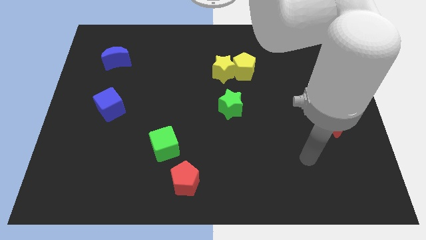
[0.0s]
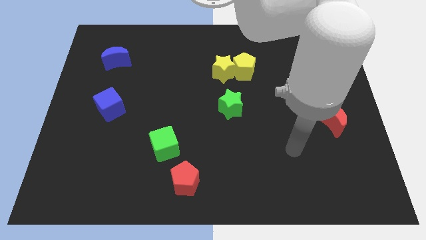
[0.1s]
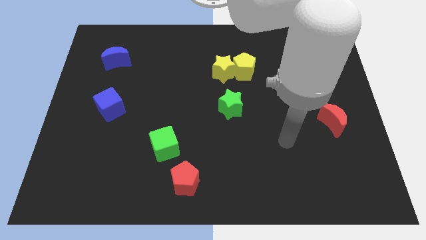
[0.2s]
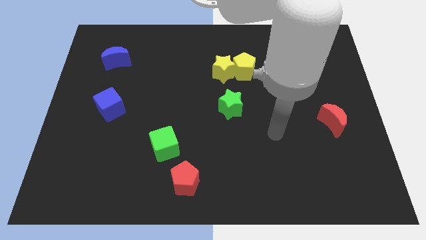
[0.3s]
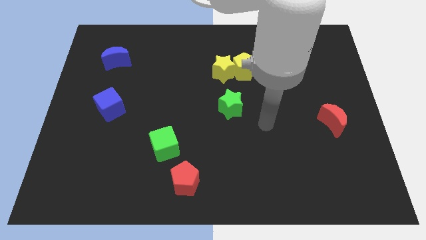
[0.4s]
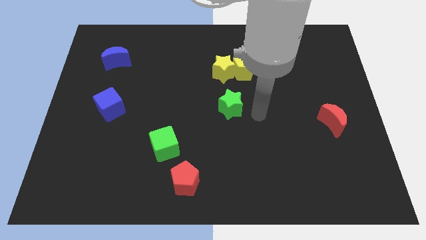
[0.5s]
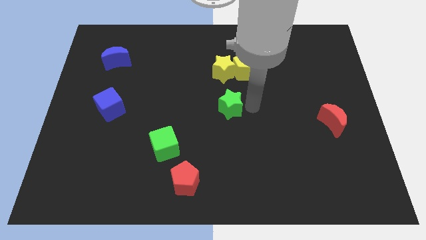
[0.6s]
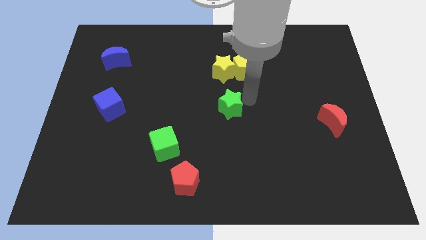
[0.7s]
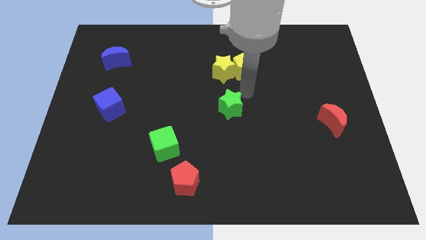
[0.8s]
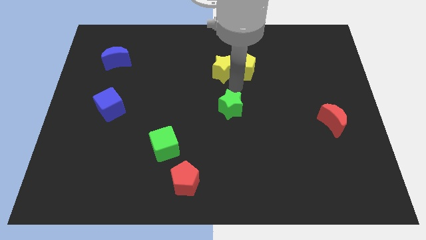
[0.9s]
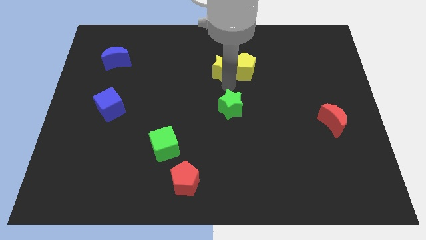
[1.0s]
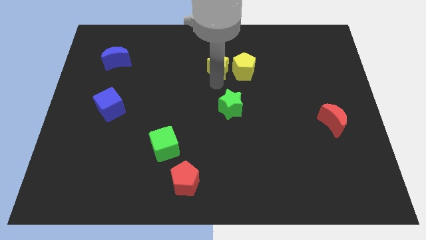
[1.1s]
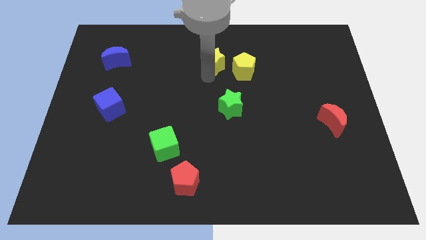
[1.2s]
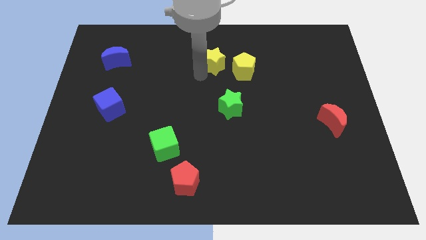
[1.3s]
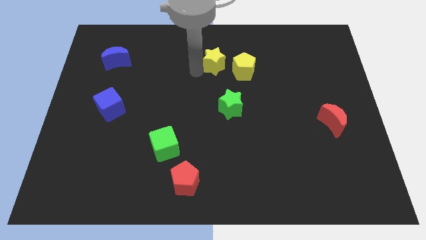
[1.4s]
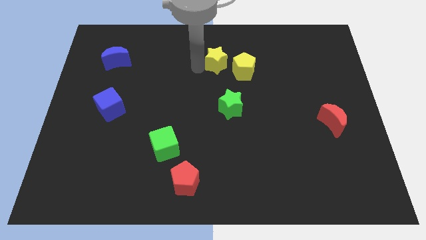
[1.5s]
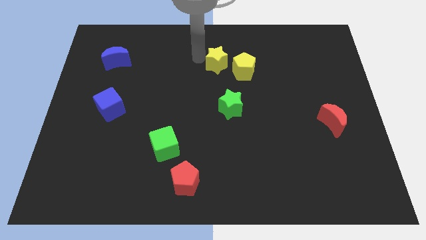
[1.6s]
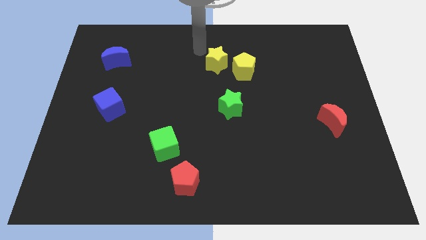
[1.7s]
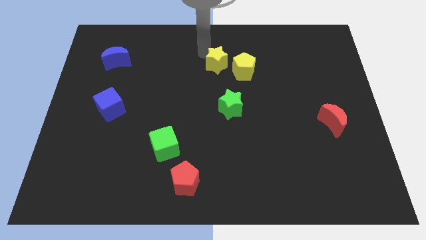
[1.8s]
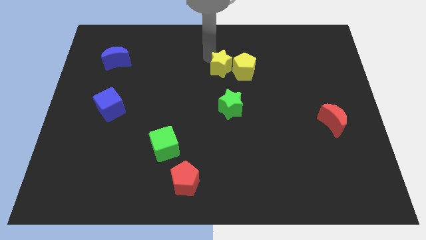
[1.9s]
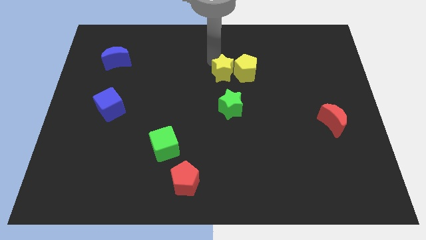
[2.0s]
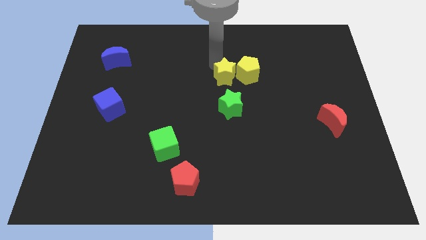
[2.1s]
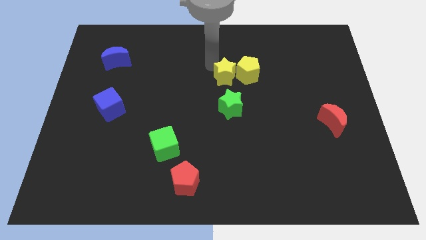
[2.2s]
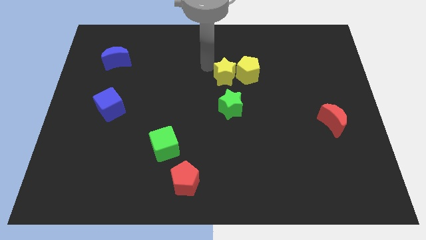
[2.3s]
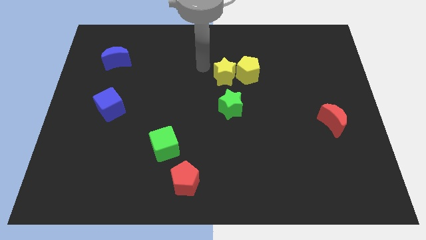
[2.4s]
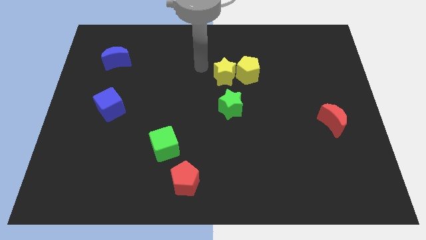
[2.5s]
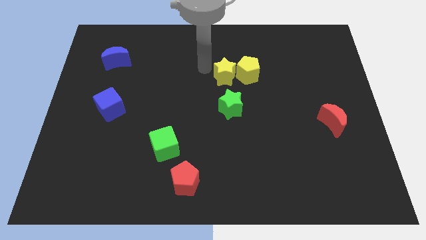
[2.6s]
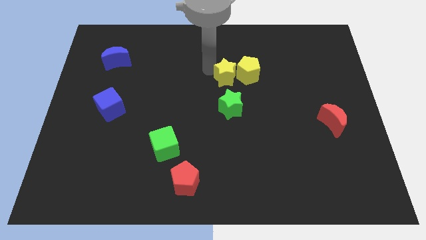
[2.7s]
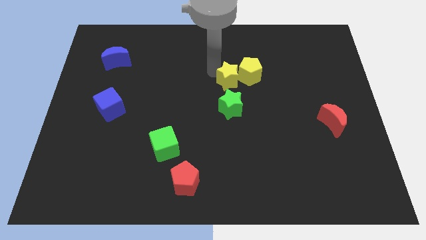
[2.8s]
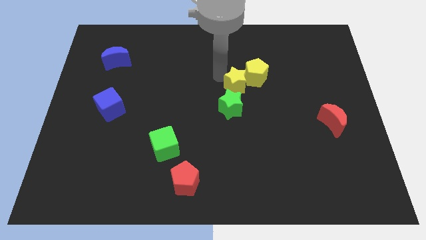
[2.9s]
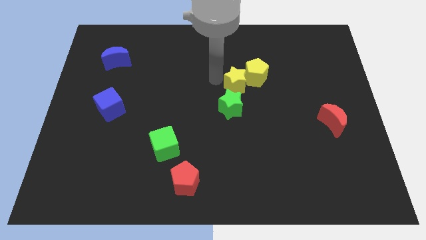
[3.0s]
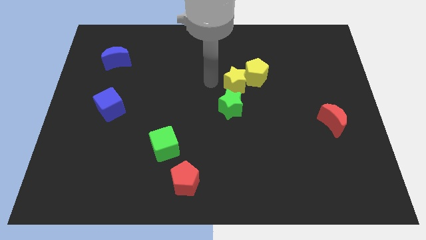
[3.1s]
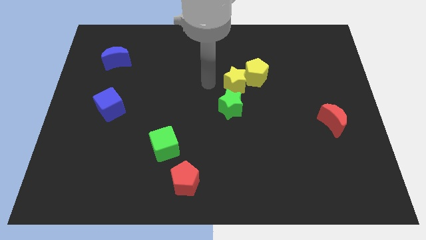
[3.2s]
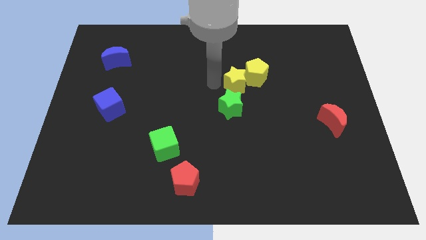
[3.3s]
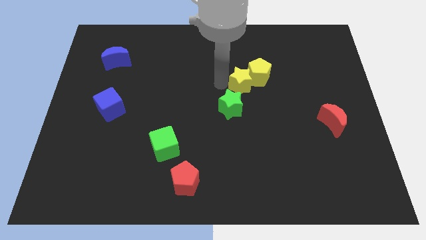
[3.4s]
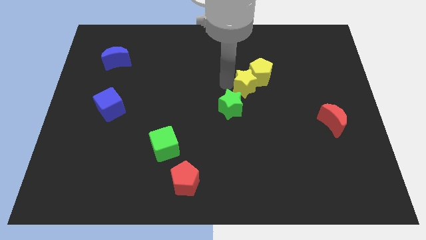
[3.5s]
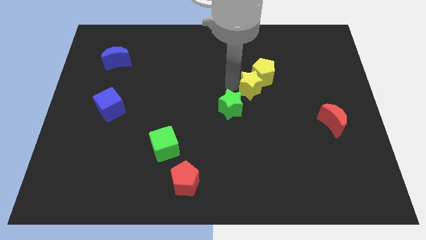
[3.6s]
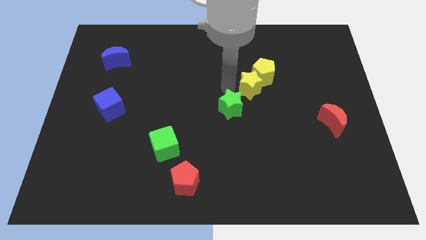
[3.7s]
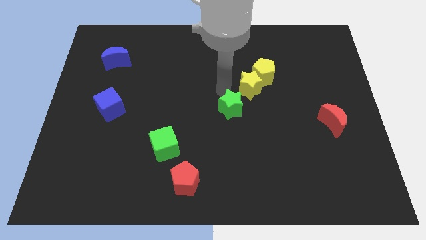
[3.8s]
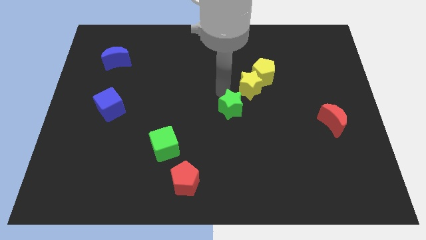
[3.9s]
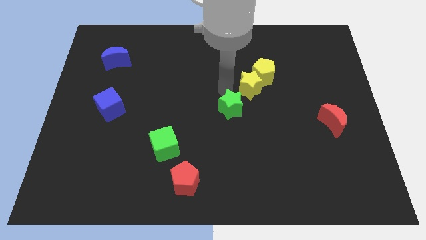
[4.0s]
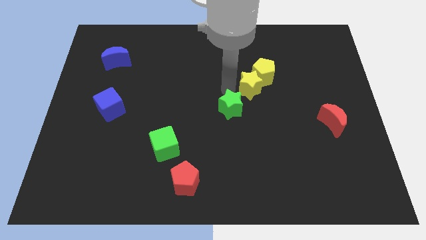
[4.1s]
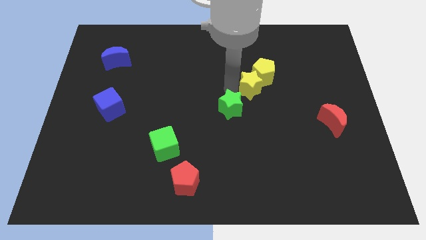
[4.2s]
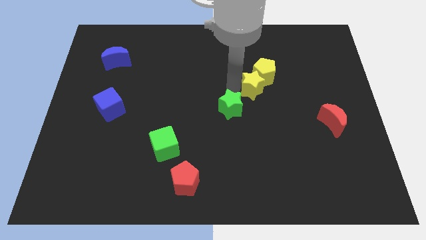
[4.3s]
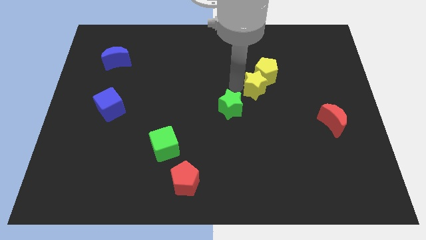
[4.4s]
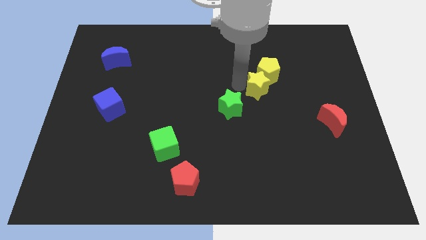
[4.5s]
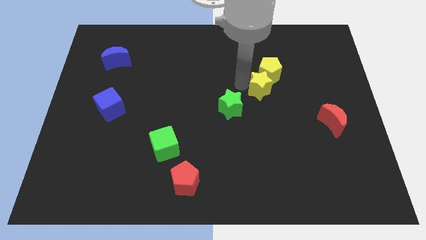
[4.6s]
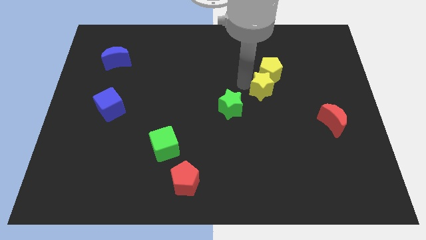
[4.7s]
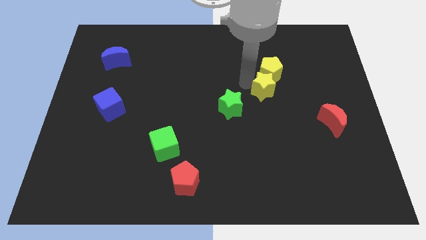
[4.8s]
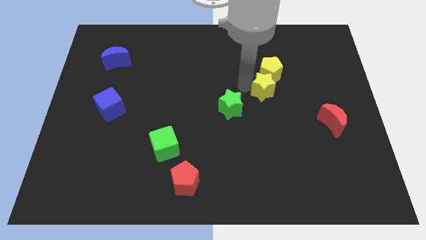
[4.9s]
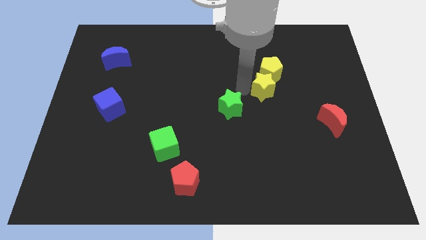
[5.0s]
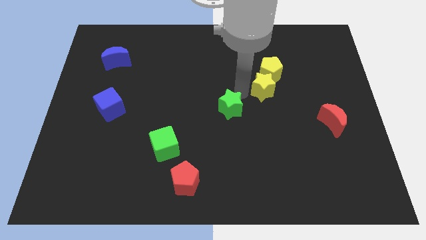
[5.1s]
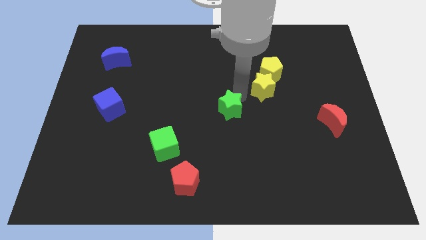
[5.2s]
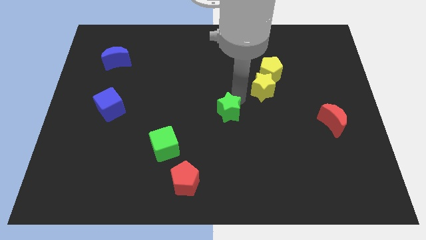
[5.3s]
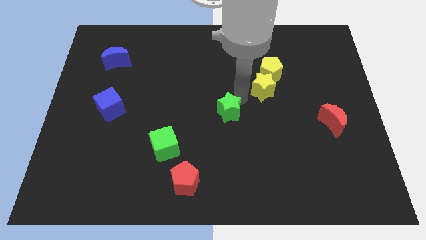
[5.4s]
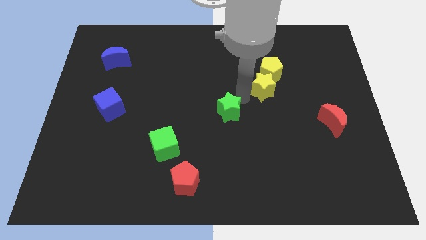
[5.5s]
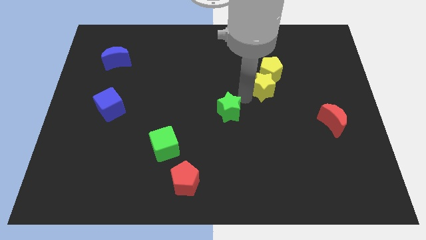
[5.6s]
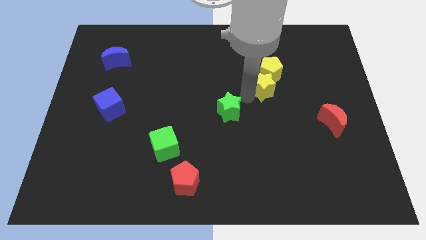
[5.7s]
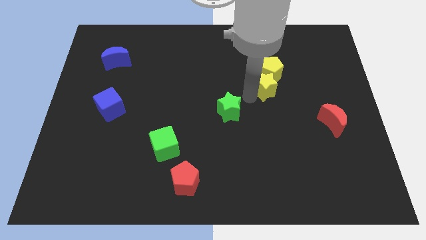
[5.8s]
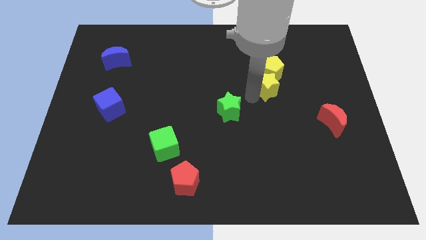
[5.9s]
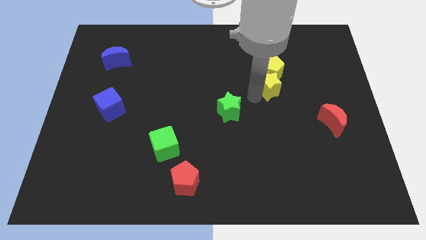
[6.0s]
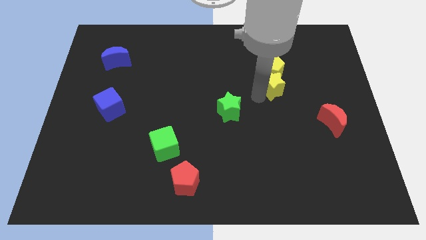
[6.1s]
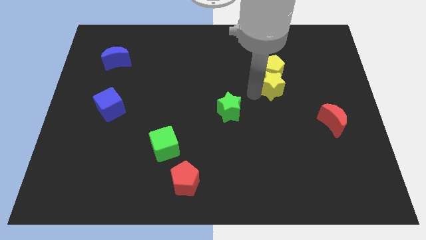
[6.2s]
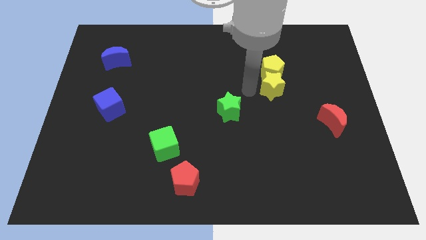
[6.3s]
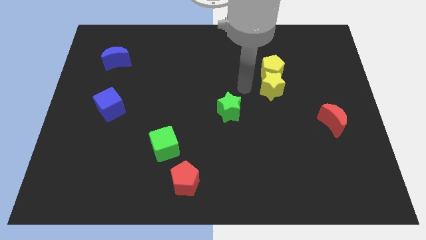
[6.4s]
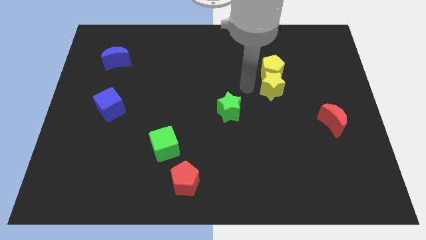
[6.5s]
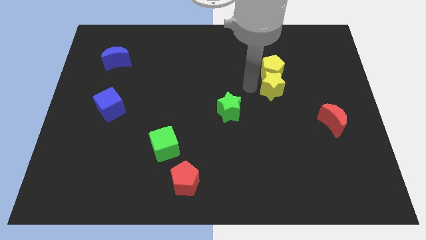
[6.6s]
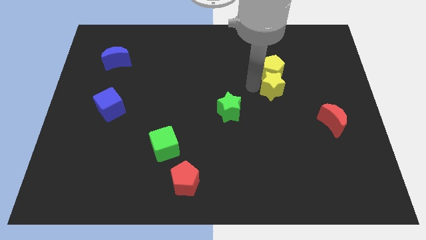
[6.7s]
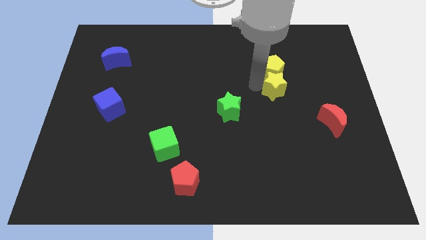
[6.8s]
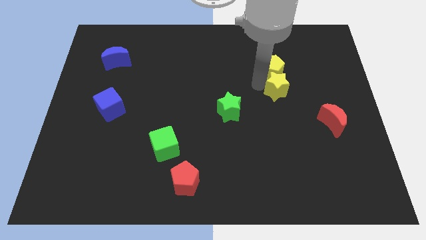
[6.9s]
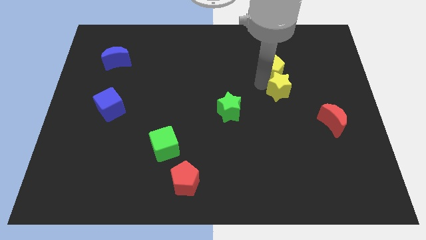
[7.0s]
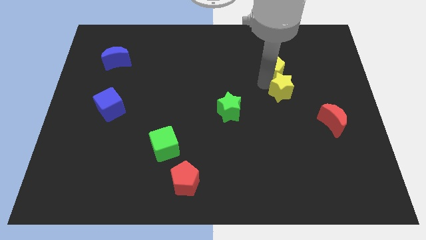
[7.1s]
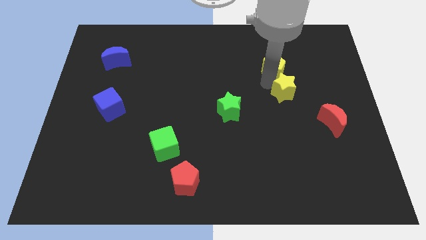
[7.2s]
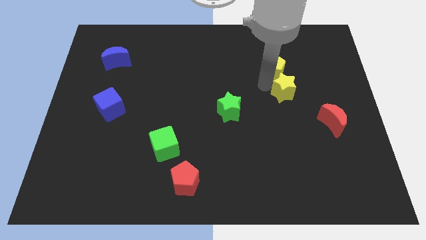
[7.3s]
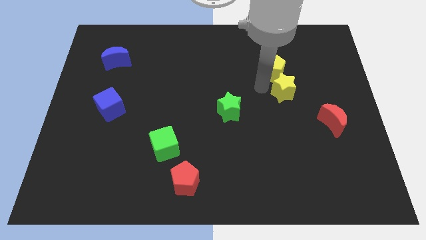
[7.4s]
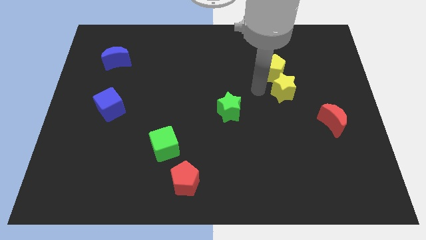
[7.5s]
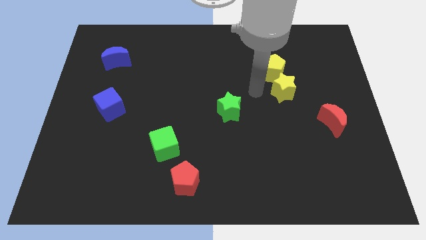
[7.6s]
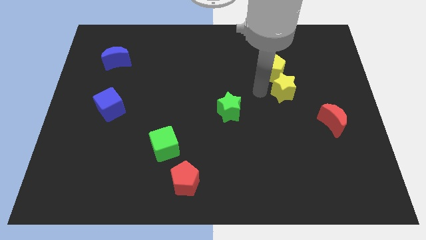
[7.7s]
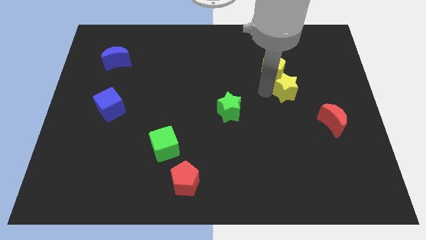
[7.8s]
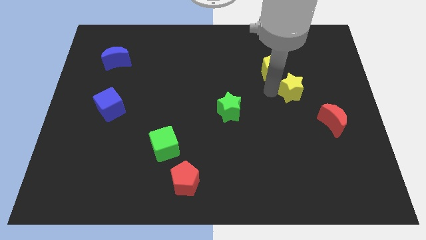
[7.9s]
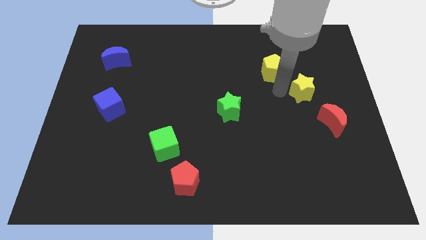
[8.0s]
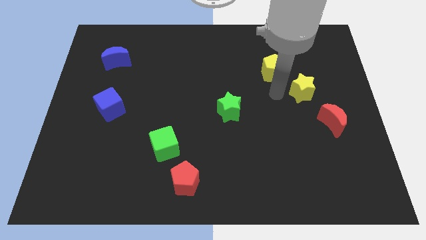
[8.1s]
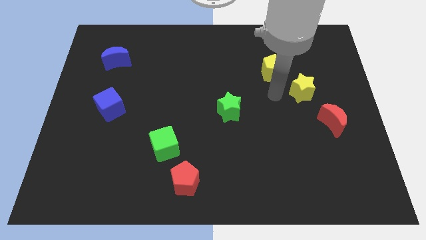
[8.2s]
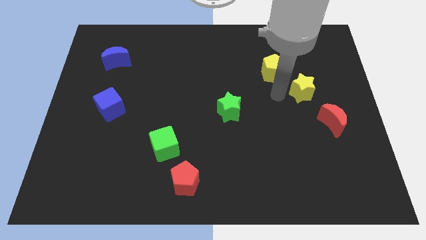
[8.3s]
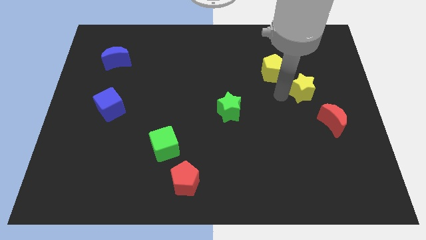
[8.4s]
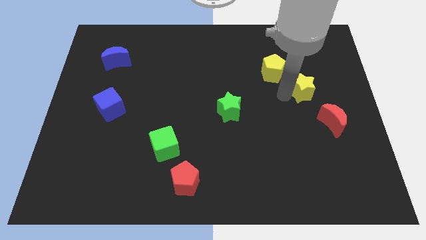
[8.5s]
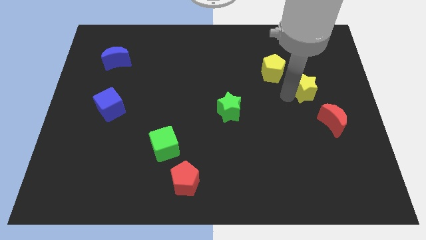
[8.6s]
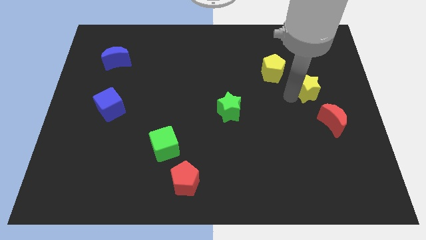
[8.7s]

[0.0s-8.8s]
move the yellow star to the top side of the red moon
